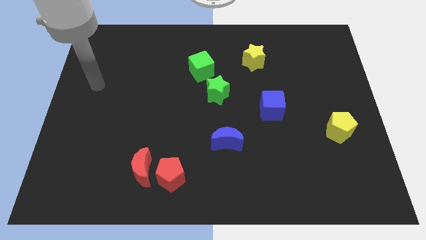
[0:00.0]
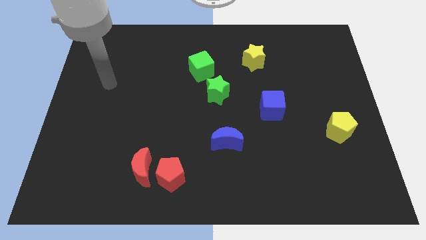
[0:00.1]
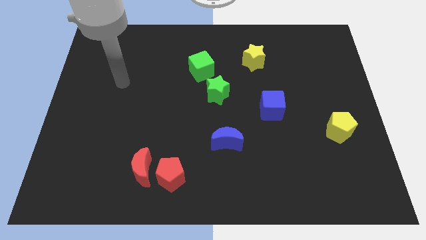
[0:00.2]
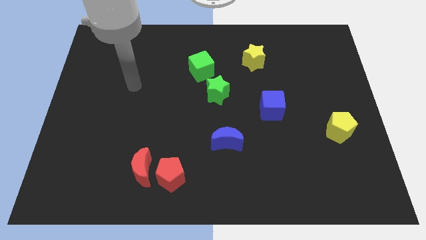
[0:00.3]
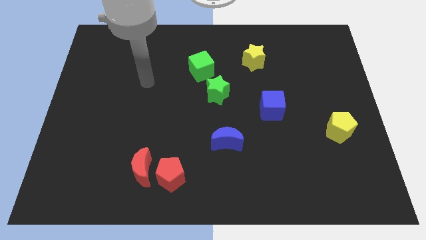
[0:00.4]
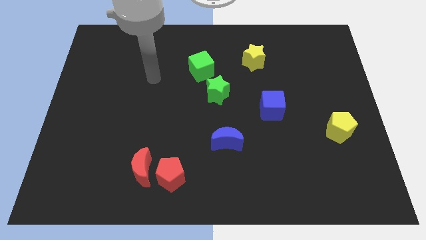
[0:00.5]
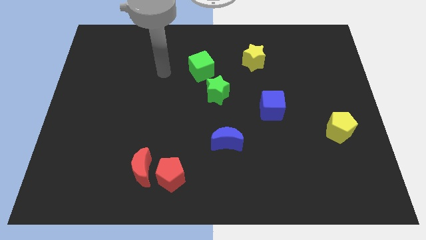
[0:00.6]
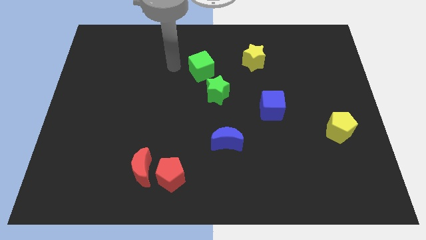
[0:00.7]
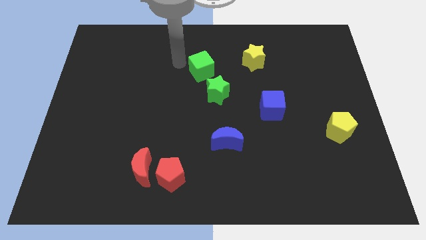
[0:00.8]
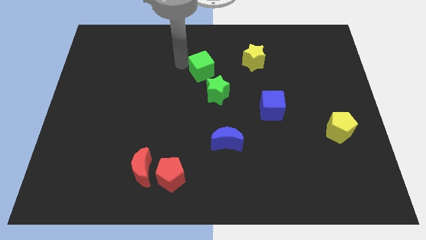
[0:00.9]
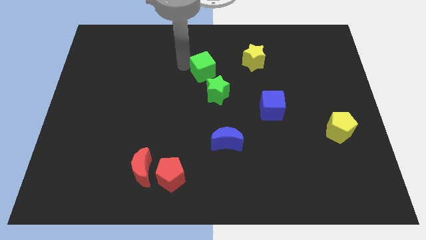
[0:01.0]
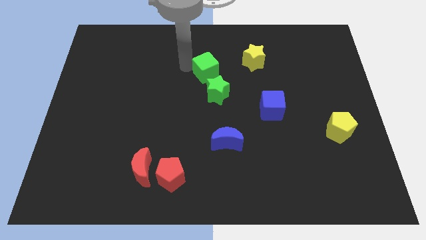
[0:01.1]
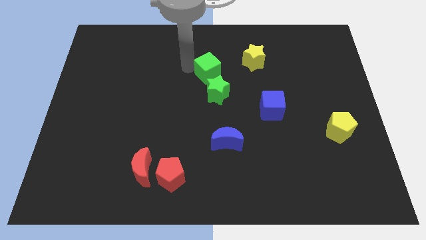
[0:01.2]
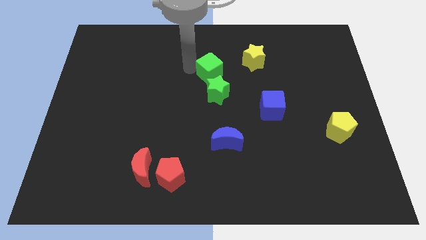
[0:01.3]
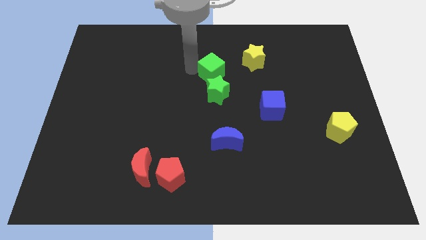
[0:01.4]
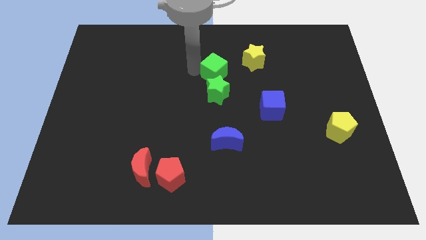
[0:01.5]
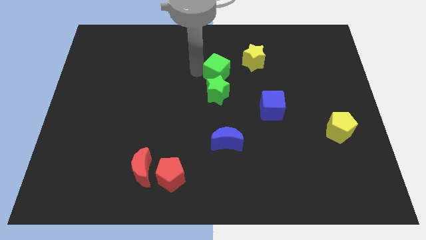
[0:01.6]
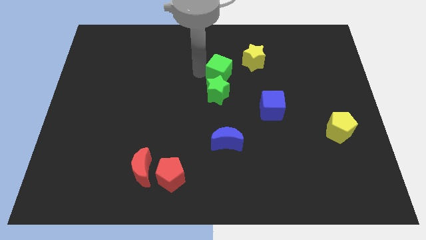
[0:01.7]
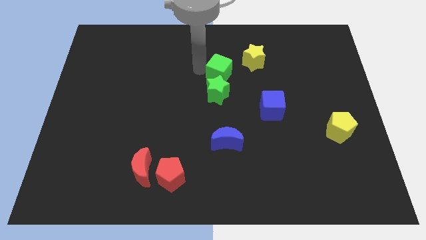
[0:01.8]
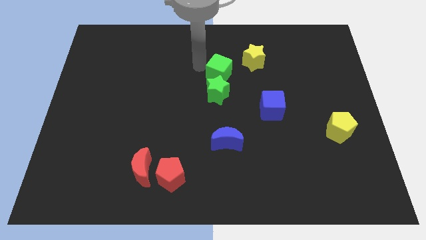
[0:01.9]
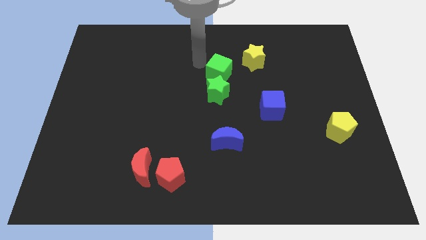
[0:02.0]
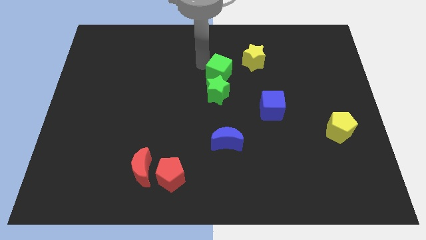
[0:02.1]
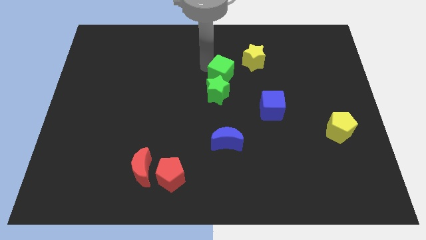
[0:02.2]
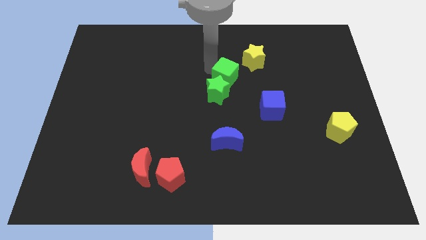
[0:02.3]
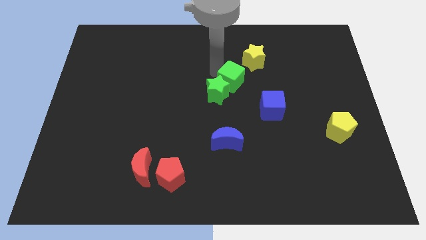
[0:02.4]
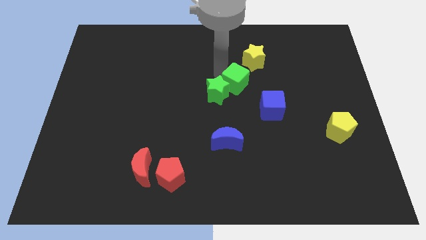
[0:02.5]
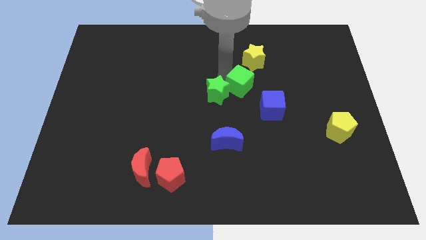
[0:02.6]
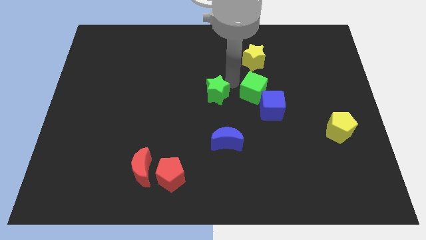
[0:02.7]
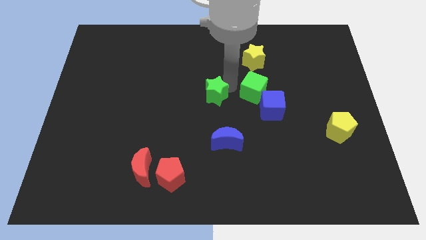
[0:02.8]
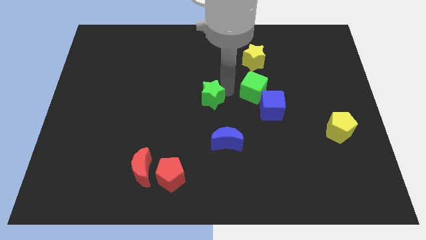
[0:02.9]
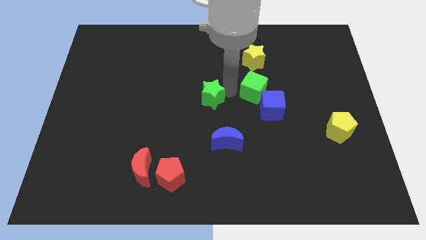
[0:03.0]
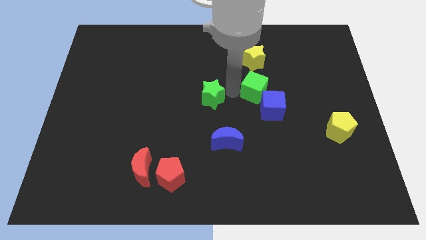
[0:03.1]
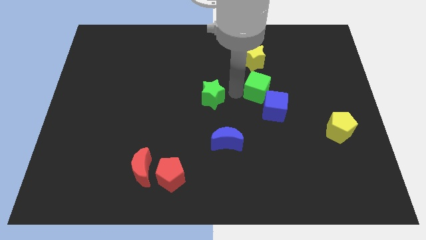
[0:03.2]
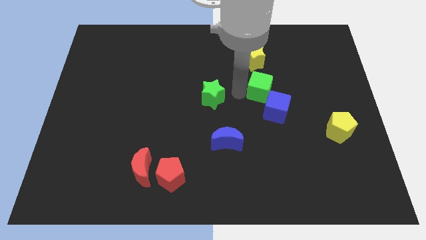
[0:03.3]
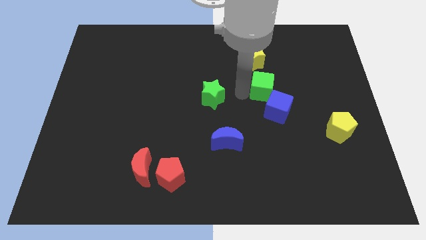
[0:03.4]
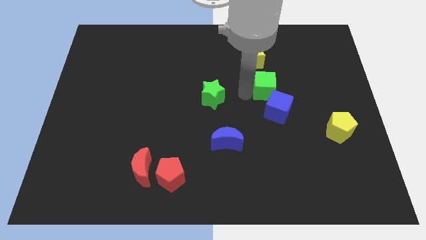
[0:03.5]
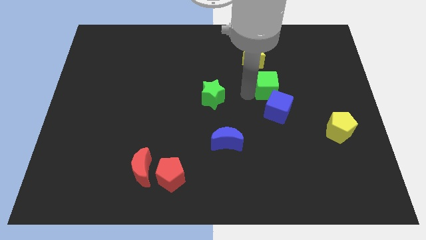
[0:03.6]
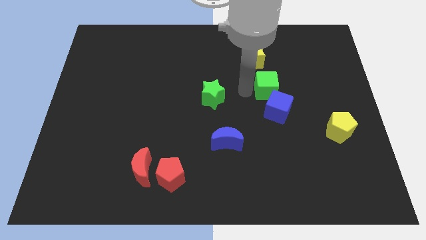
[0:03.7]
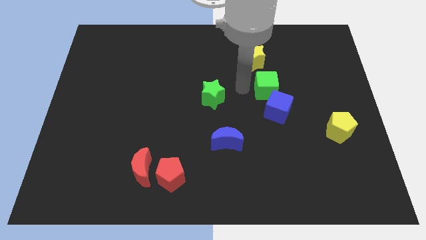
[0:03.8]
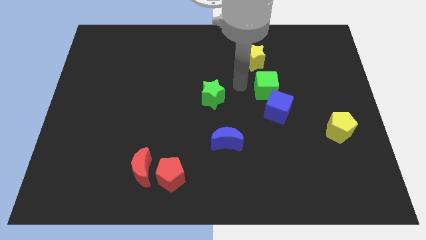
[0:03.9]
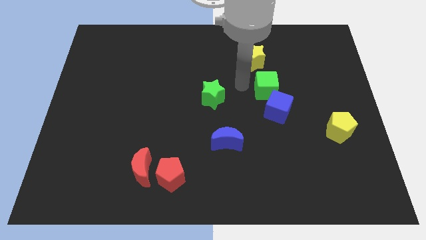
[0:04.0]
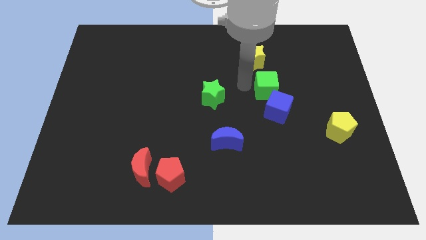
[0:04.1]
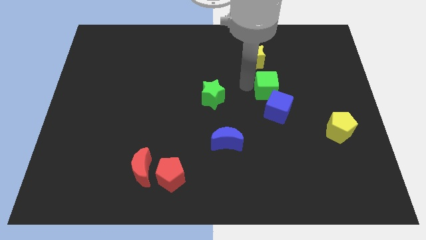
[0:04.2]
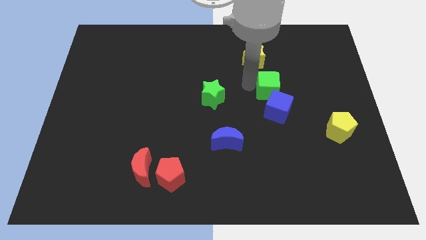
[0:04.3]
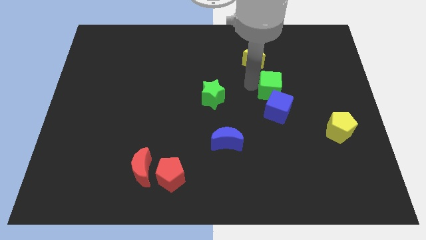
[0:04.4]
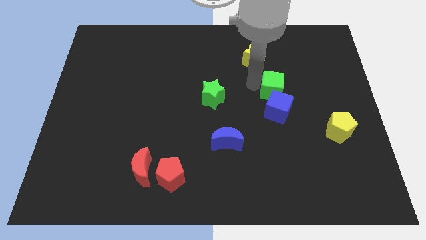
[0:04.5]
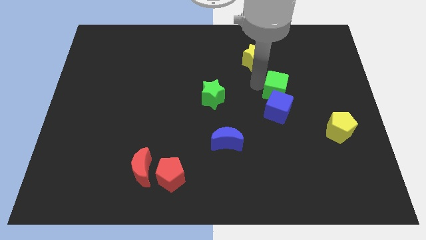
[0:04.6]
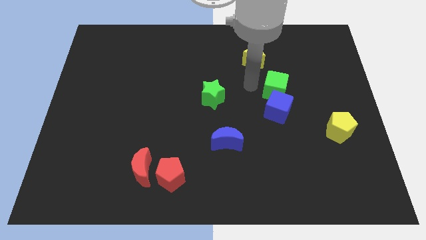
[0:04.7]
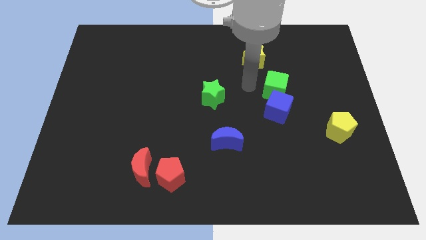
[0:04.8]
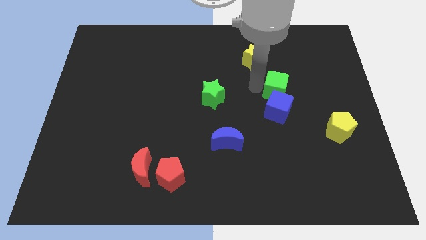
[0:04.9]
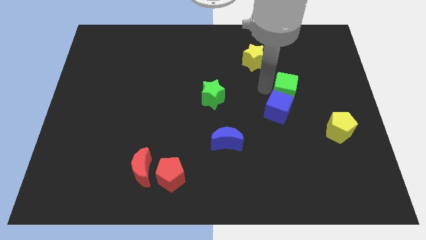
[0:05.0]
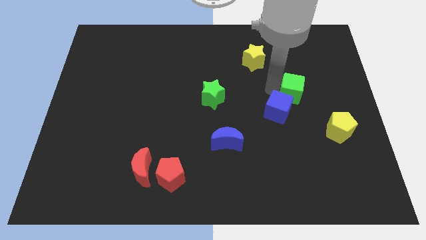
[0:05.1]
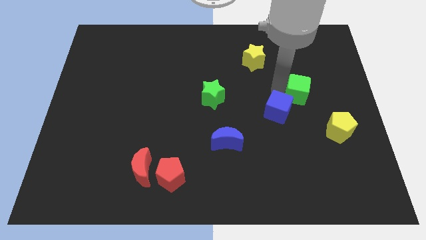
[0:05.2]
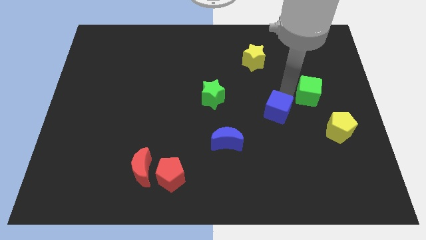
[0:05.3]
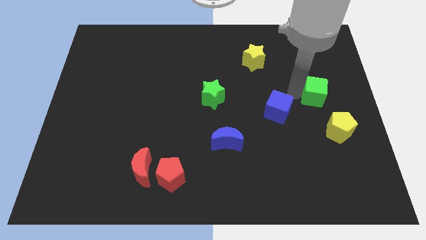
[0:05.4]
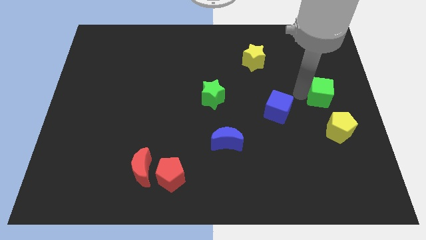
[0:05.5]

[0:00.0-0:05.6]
slide the green cube to the right side of the board

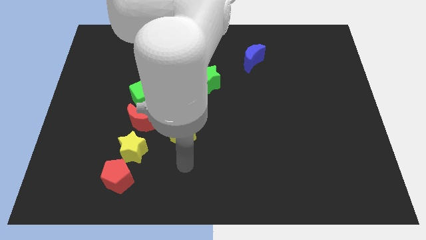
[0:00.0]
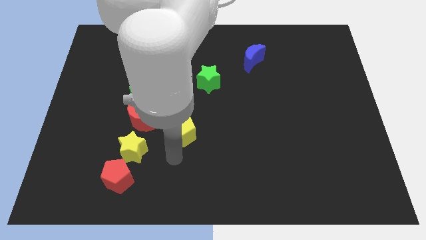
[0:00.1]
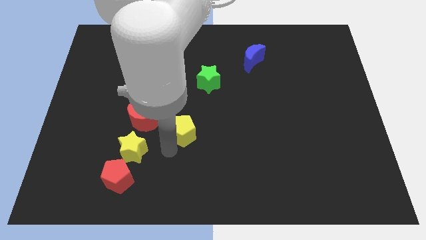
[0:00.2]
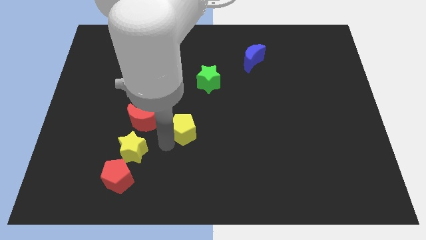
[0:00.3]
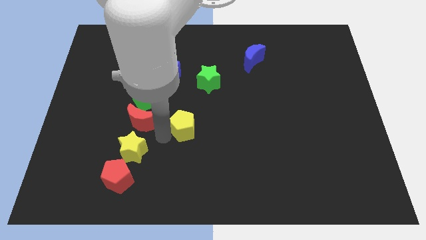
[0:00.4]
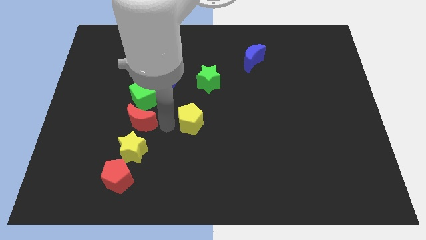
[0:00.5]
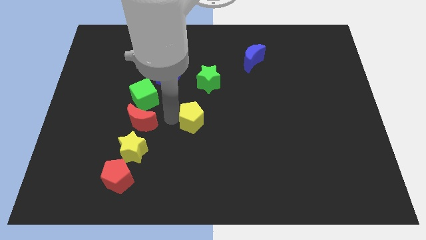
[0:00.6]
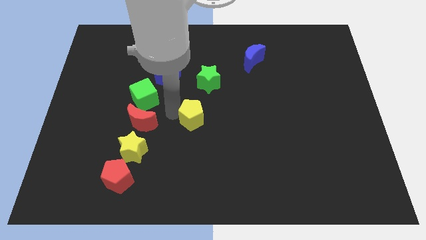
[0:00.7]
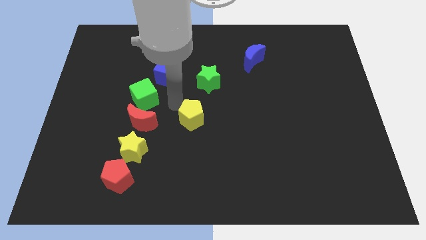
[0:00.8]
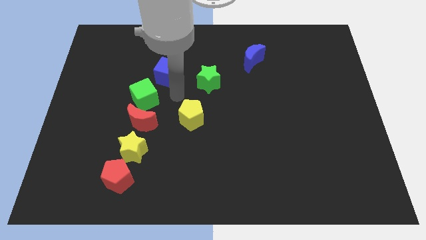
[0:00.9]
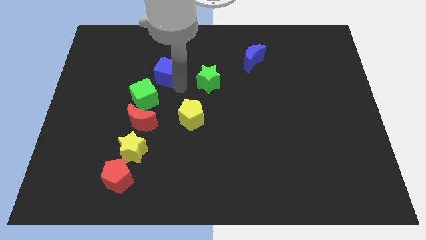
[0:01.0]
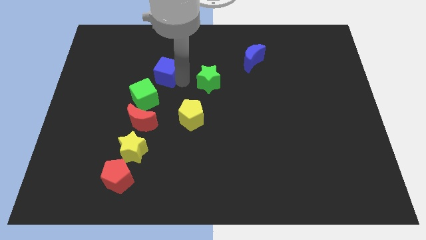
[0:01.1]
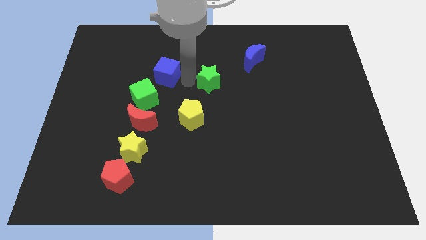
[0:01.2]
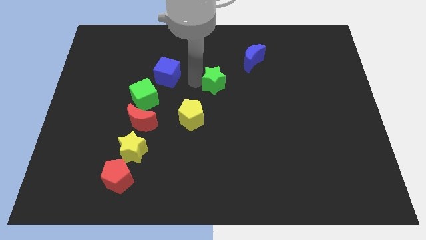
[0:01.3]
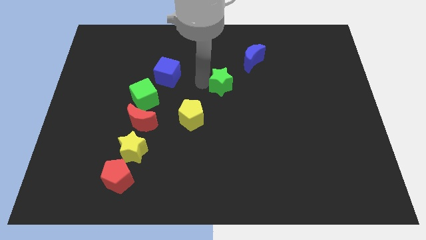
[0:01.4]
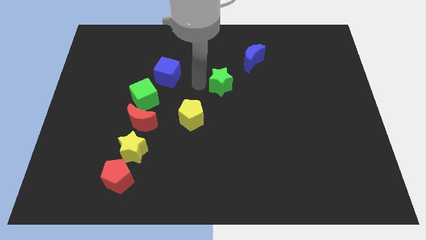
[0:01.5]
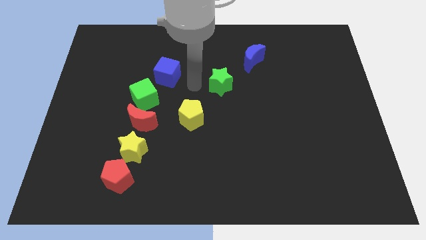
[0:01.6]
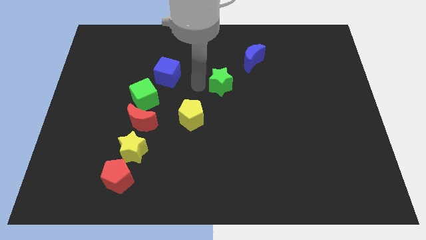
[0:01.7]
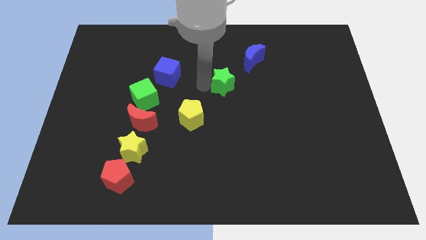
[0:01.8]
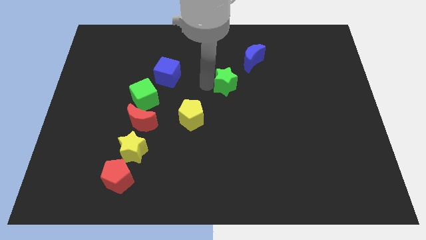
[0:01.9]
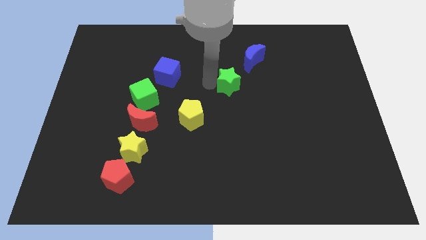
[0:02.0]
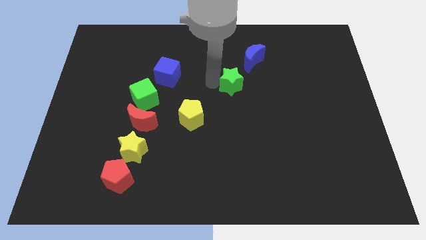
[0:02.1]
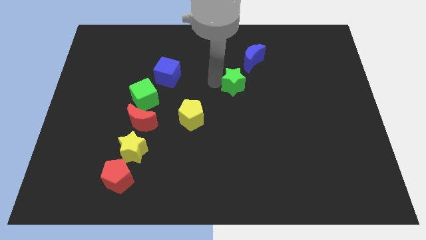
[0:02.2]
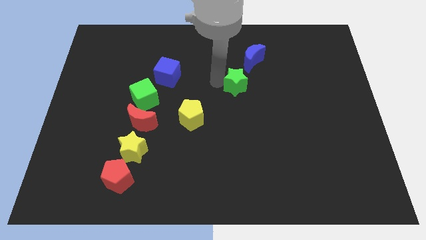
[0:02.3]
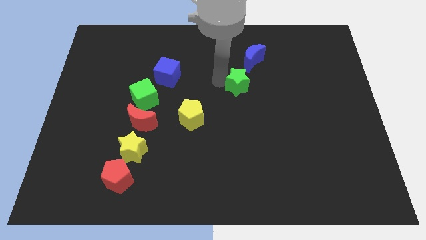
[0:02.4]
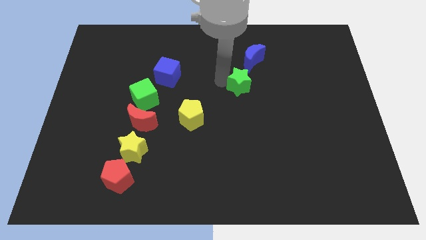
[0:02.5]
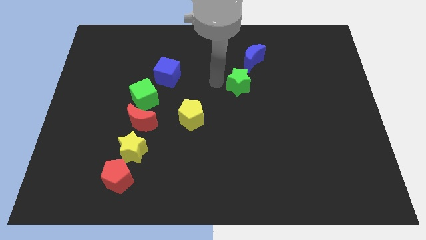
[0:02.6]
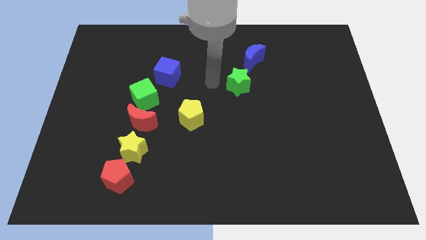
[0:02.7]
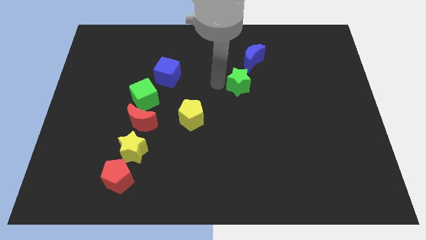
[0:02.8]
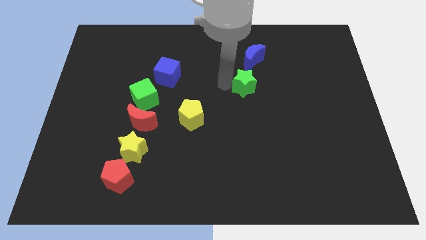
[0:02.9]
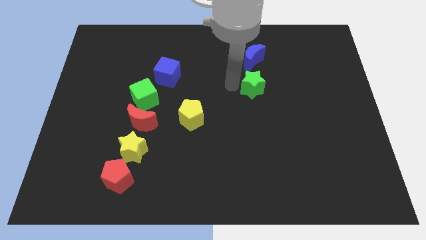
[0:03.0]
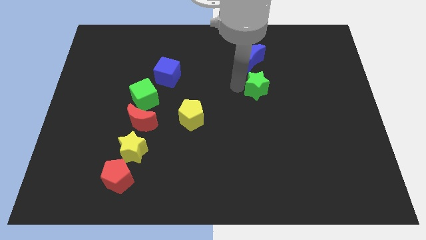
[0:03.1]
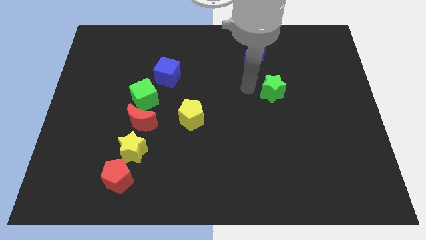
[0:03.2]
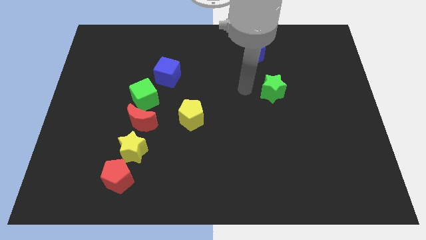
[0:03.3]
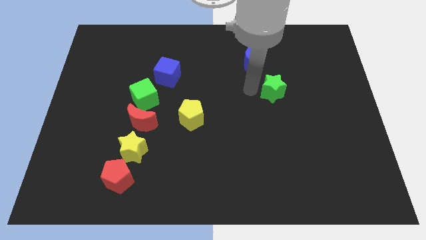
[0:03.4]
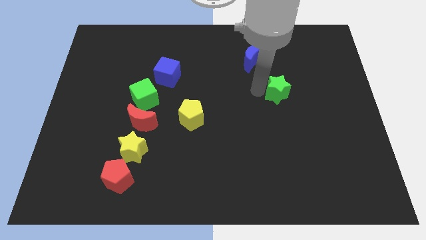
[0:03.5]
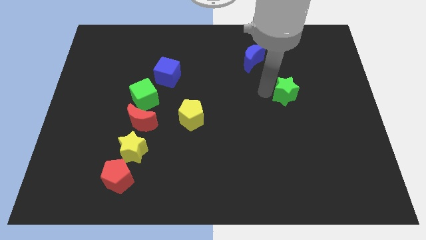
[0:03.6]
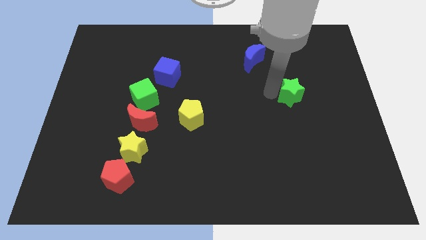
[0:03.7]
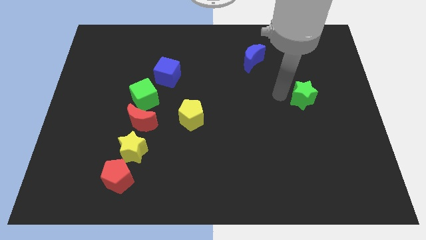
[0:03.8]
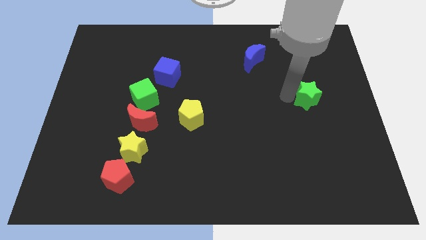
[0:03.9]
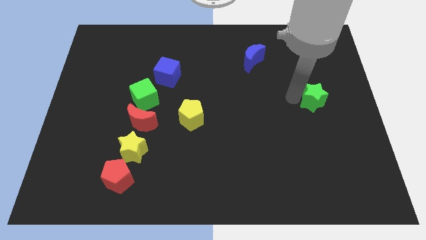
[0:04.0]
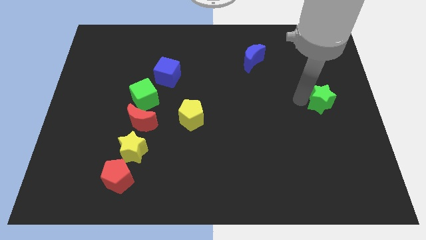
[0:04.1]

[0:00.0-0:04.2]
slide the green star to the right side of the board
